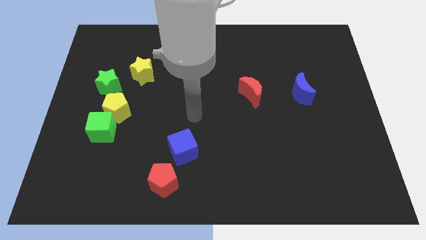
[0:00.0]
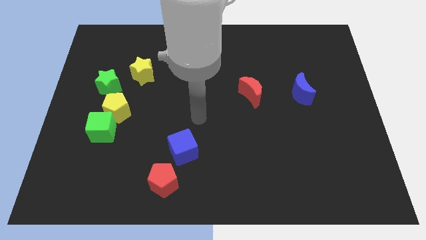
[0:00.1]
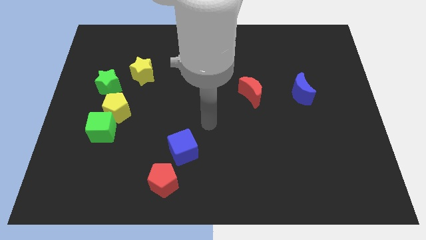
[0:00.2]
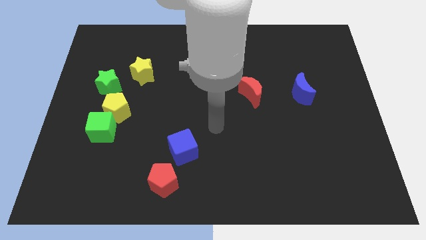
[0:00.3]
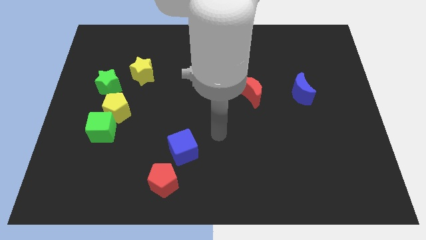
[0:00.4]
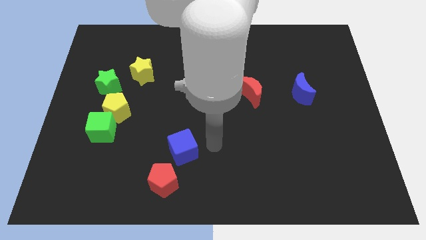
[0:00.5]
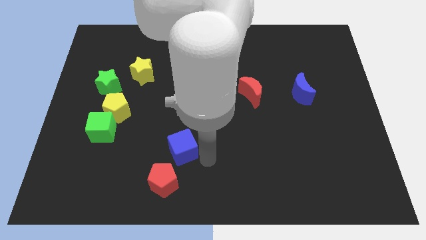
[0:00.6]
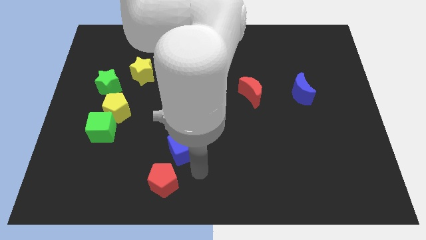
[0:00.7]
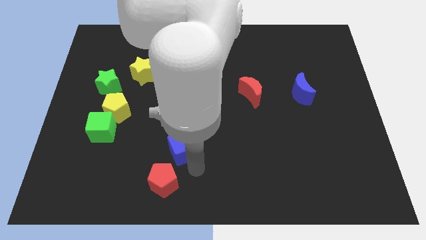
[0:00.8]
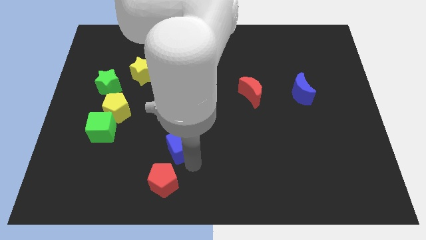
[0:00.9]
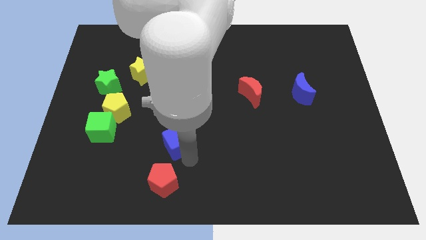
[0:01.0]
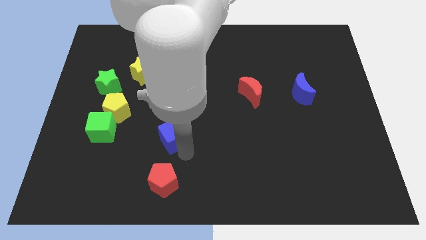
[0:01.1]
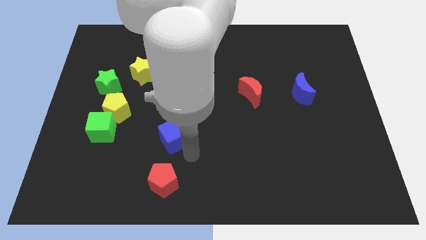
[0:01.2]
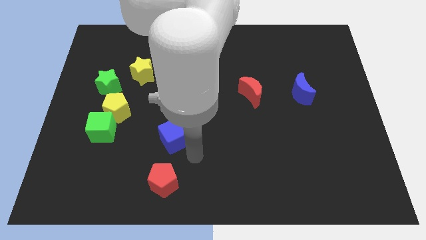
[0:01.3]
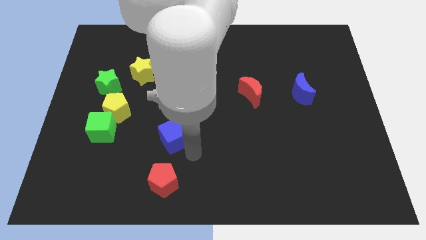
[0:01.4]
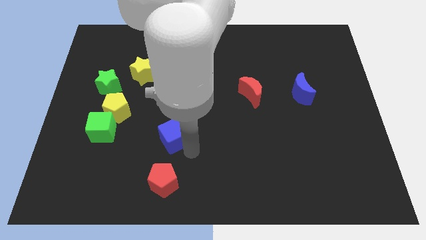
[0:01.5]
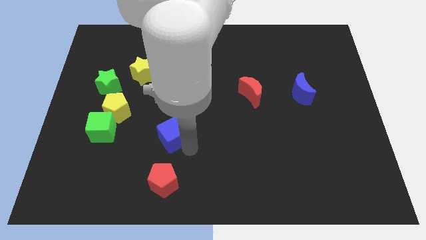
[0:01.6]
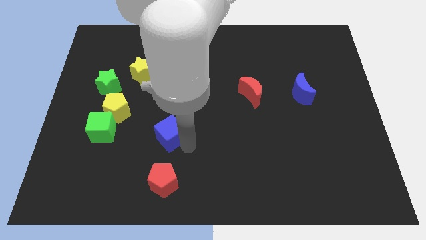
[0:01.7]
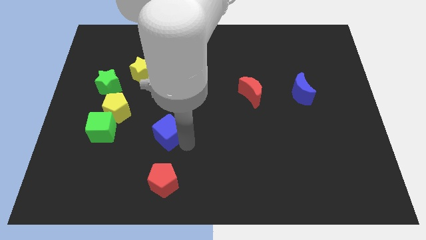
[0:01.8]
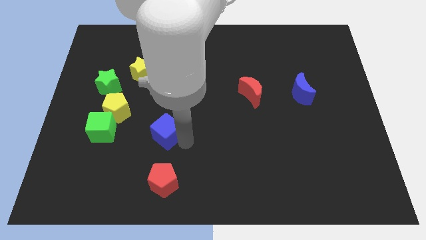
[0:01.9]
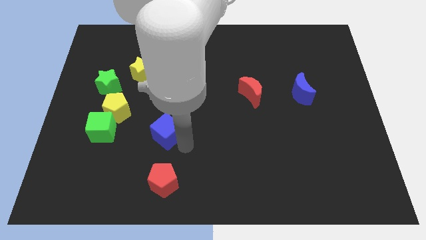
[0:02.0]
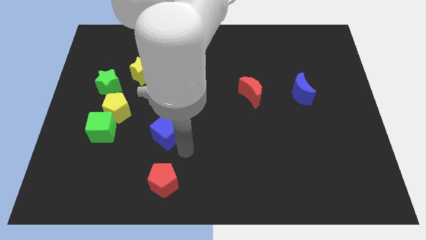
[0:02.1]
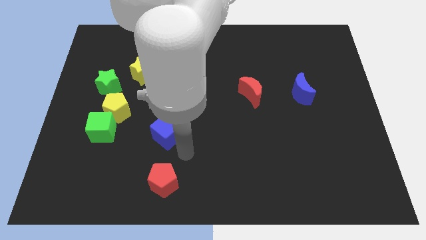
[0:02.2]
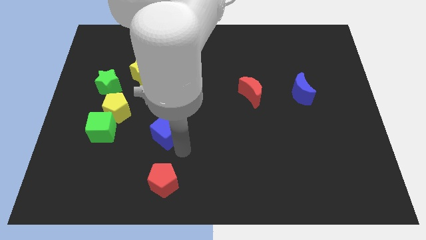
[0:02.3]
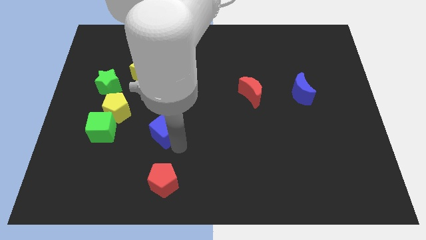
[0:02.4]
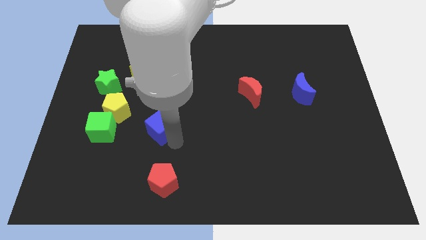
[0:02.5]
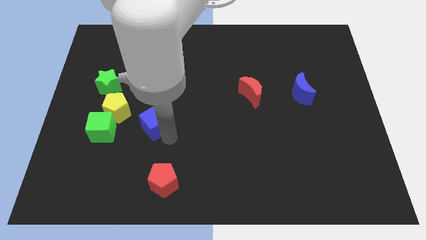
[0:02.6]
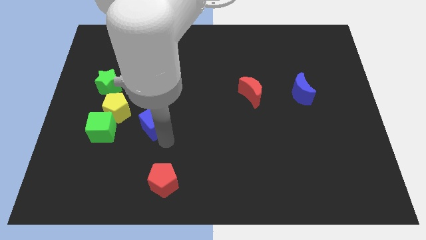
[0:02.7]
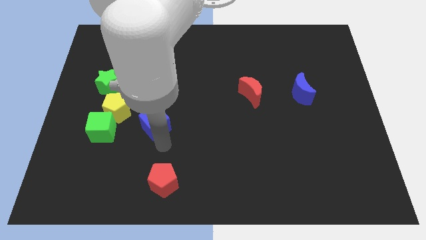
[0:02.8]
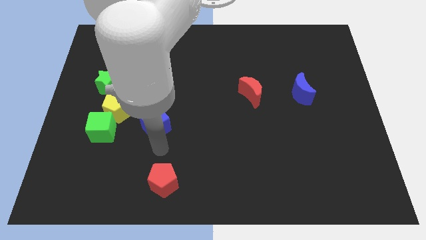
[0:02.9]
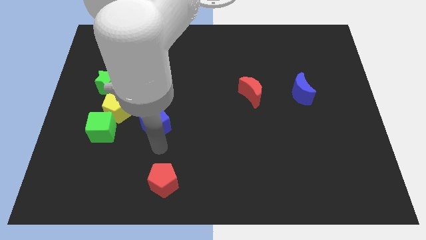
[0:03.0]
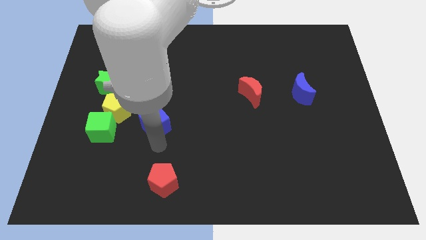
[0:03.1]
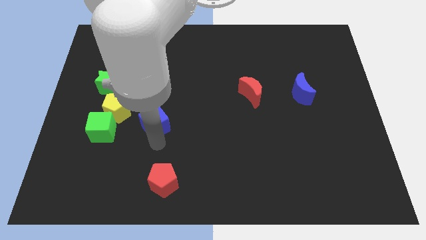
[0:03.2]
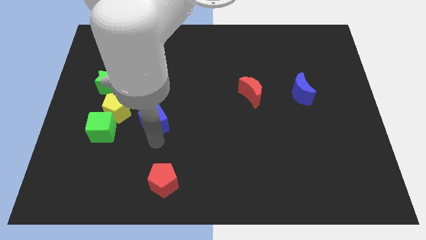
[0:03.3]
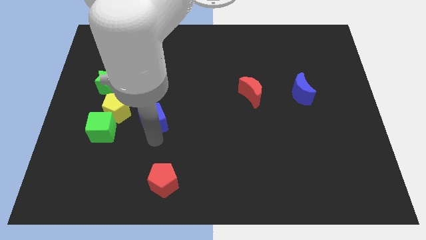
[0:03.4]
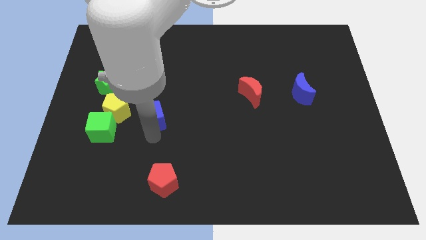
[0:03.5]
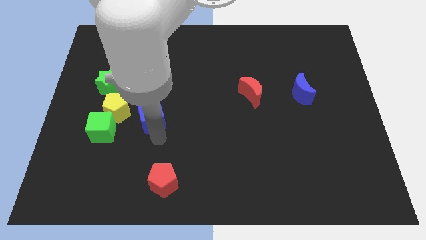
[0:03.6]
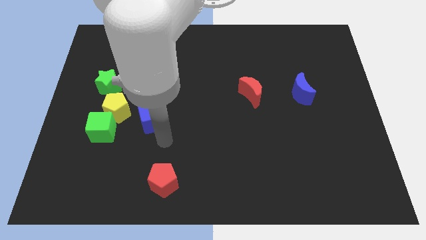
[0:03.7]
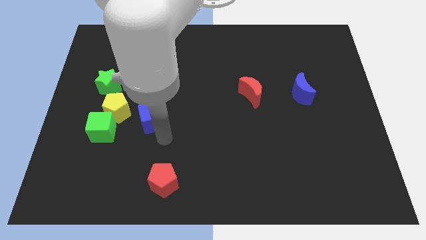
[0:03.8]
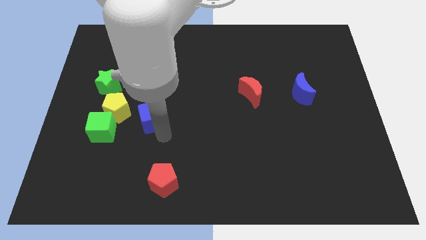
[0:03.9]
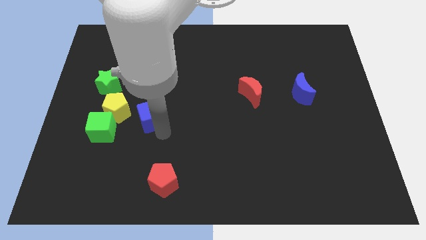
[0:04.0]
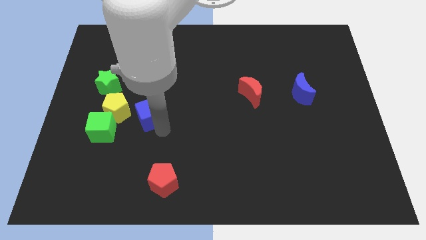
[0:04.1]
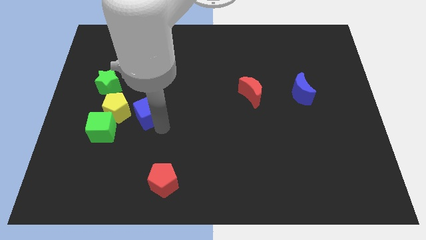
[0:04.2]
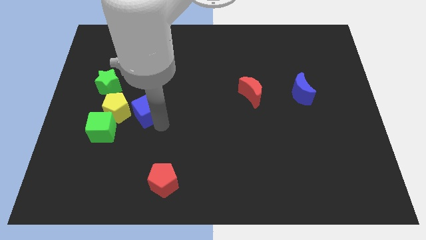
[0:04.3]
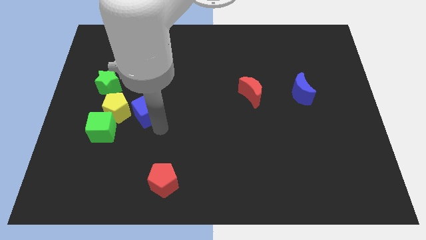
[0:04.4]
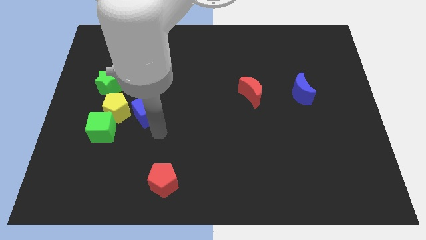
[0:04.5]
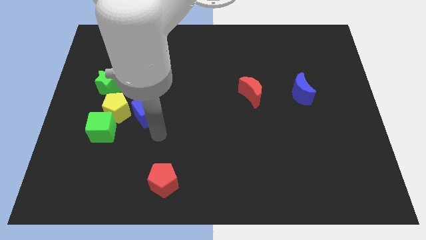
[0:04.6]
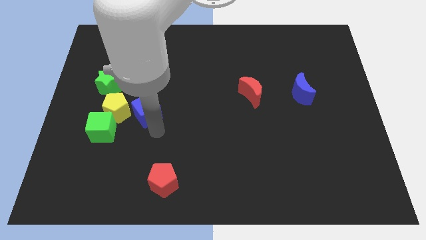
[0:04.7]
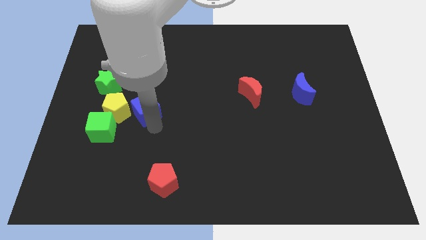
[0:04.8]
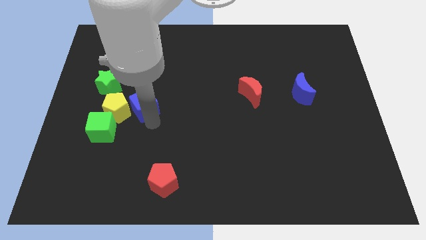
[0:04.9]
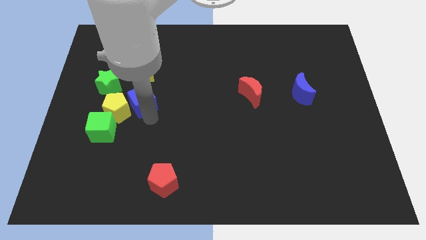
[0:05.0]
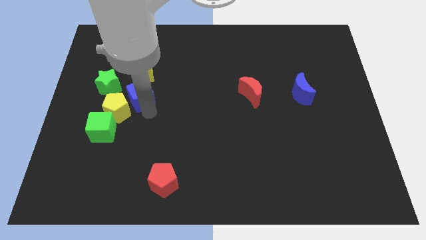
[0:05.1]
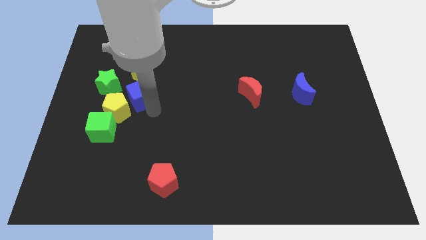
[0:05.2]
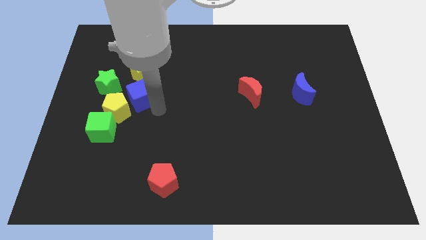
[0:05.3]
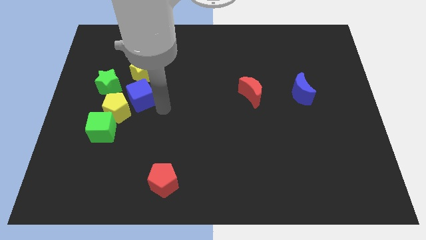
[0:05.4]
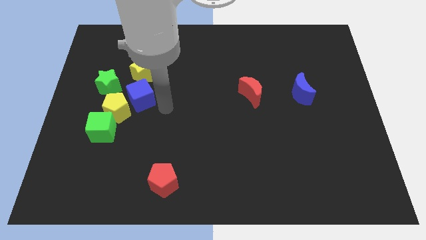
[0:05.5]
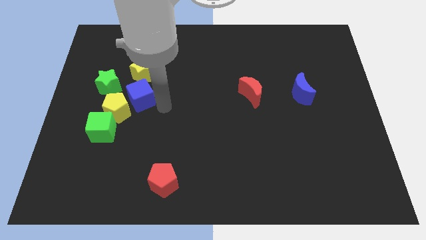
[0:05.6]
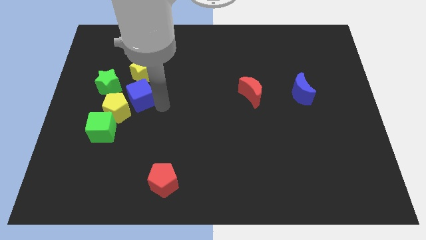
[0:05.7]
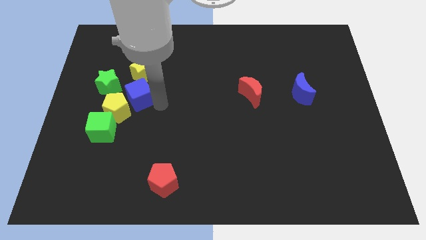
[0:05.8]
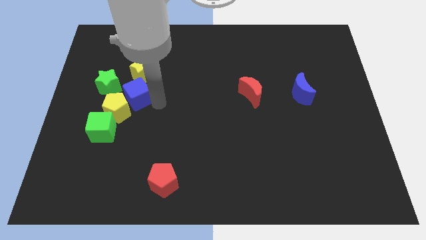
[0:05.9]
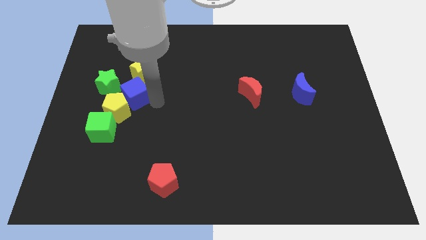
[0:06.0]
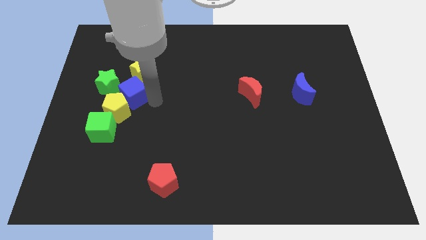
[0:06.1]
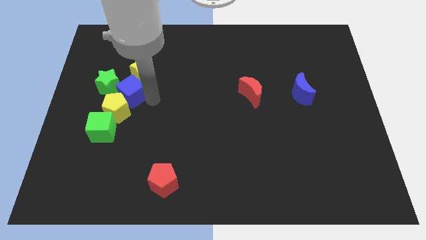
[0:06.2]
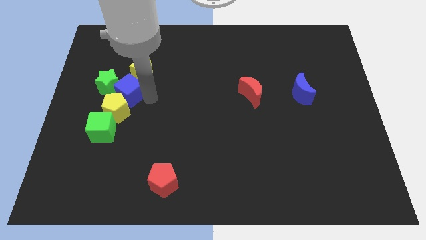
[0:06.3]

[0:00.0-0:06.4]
slide the blue cube next to the green star
